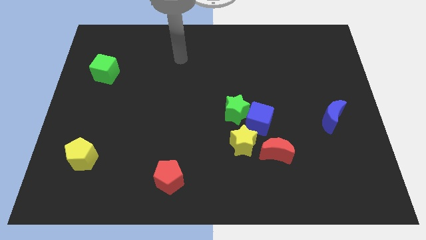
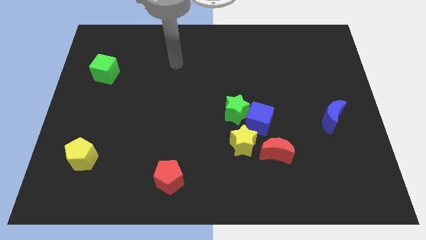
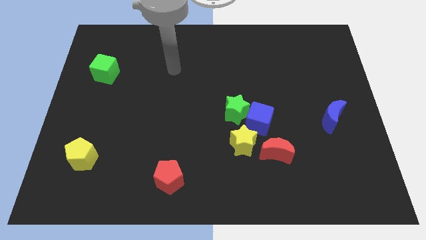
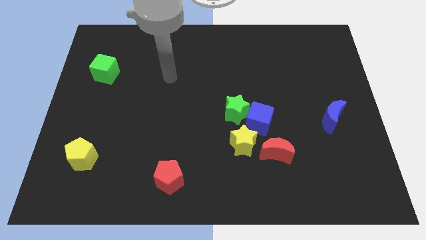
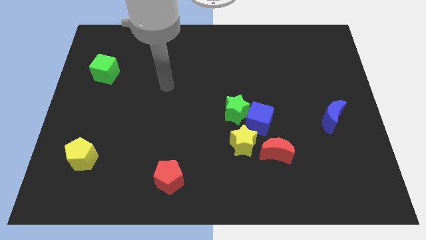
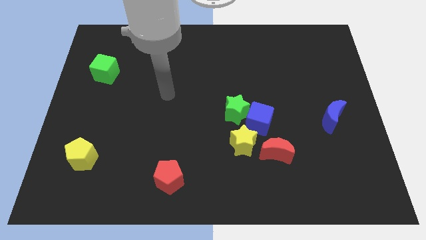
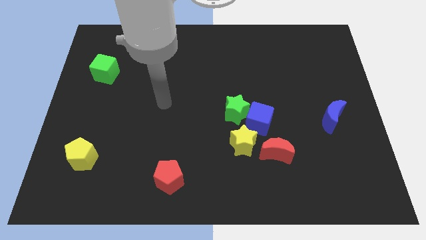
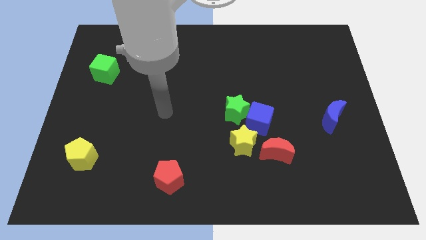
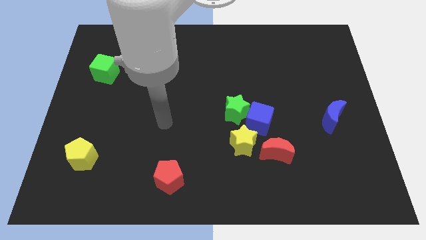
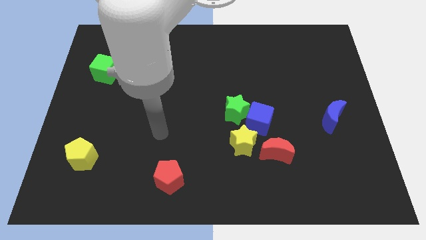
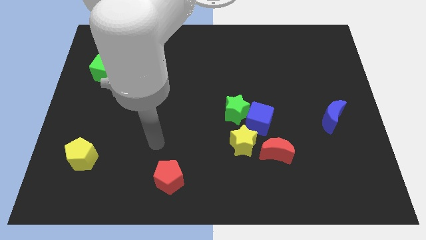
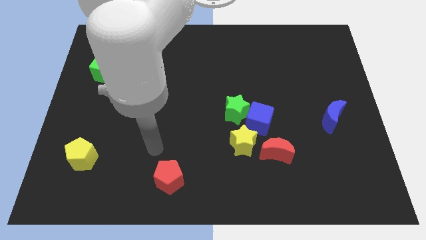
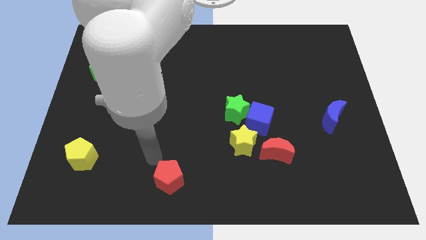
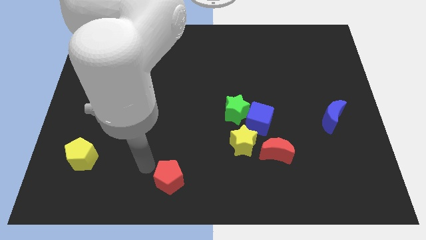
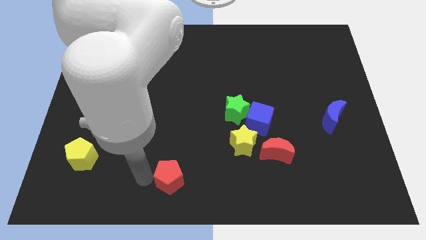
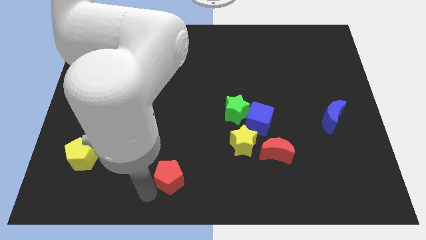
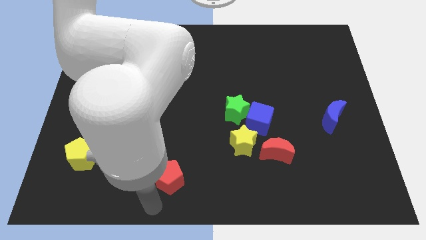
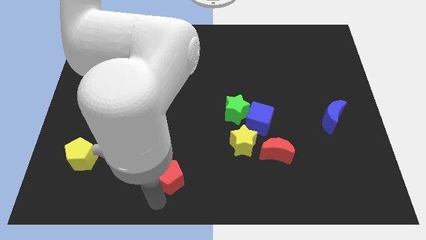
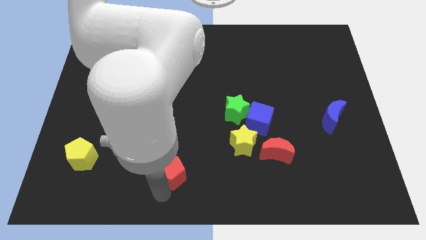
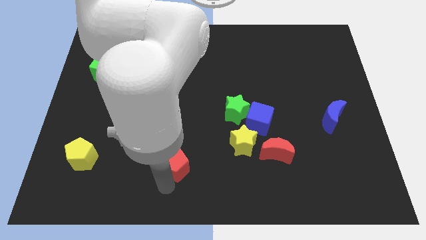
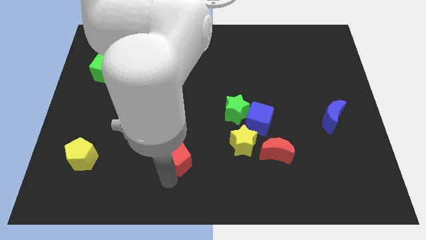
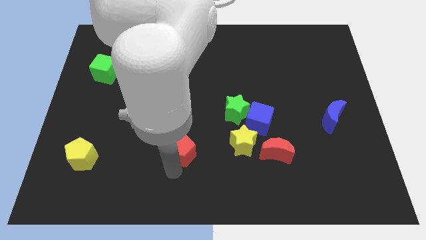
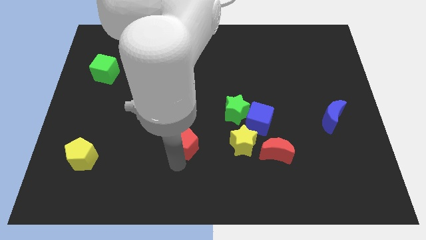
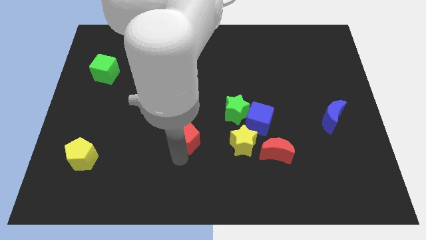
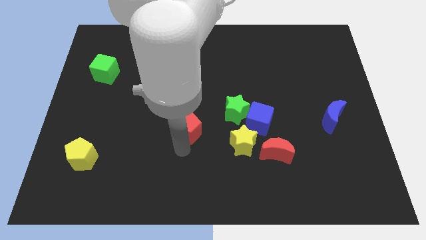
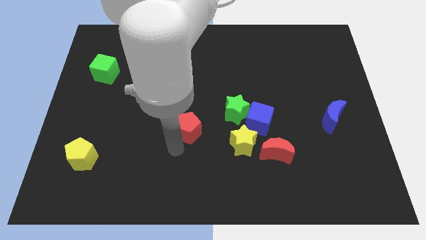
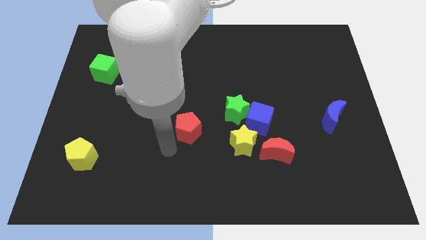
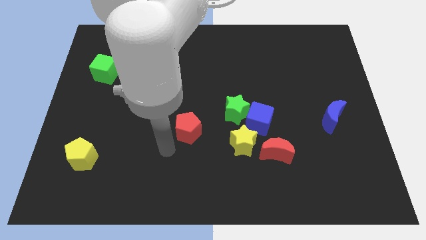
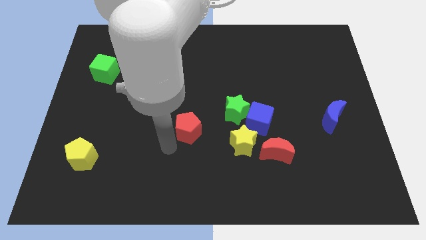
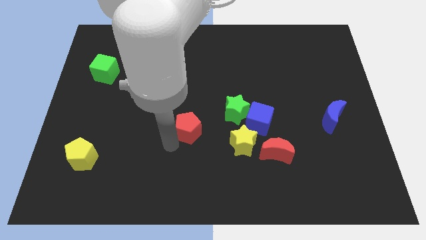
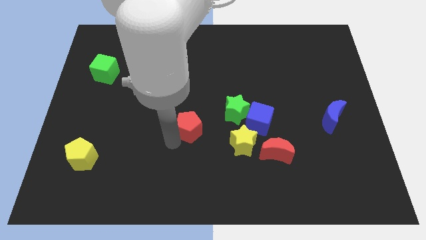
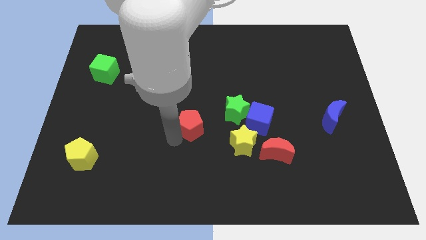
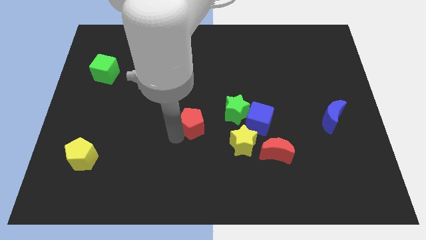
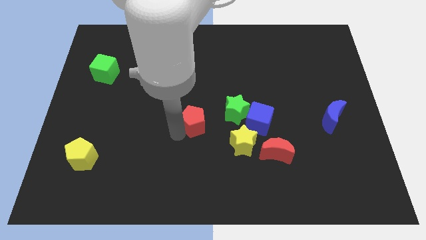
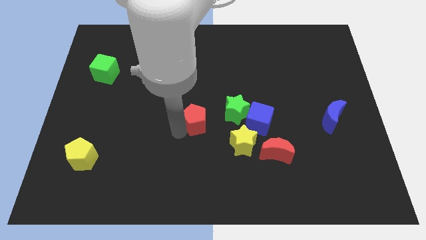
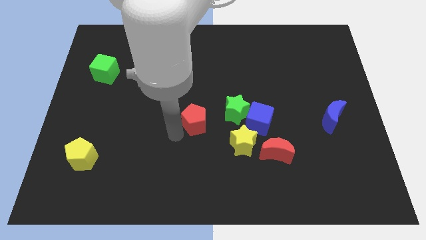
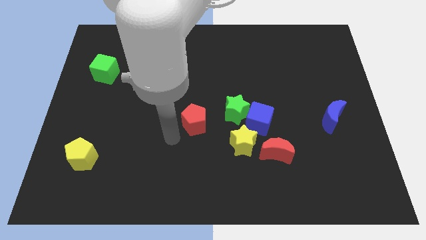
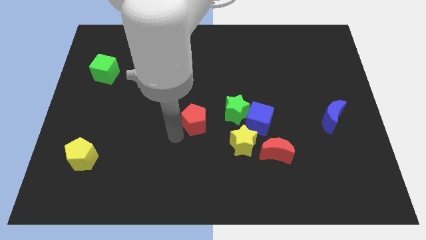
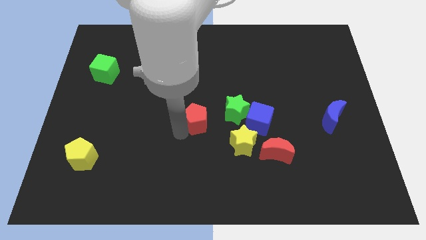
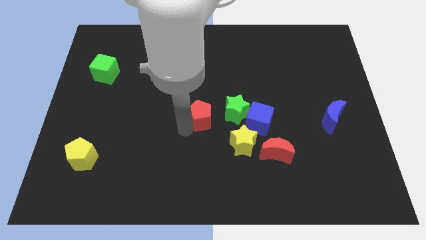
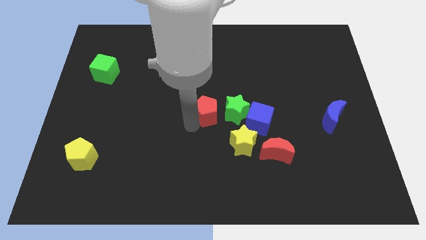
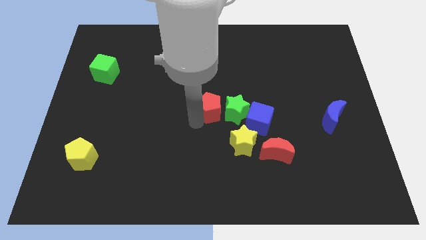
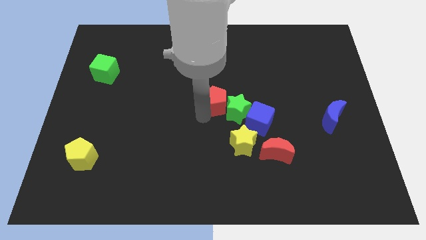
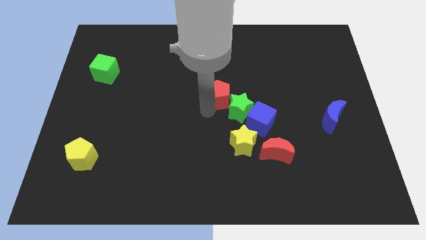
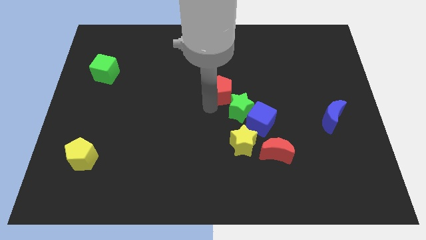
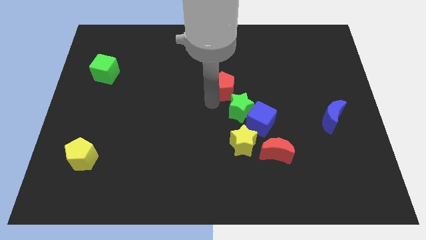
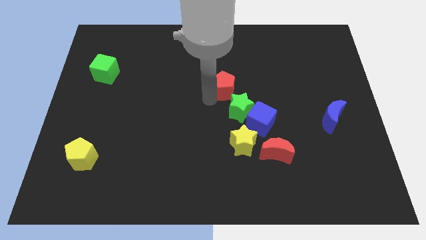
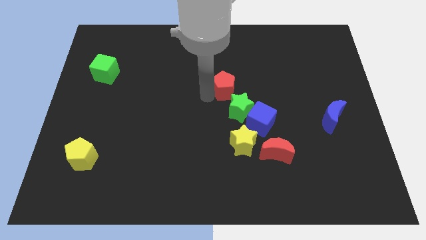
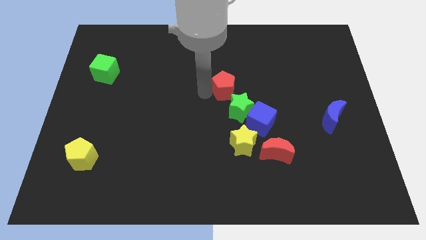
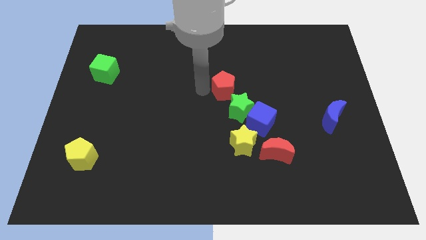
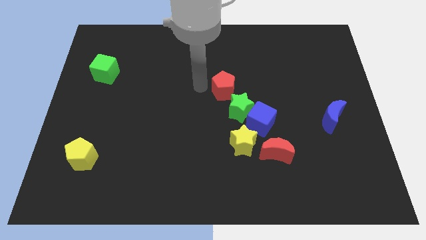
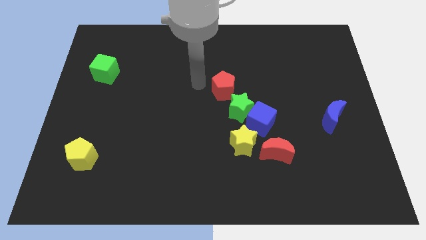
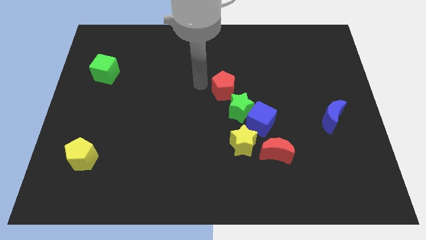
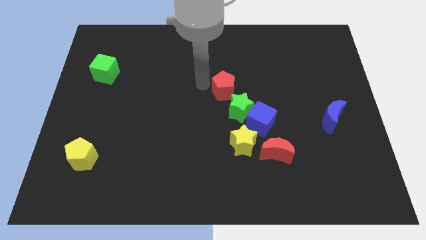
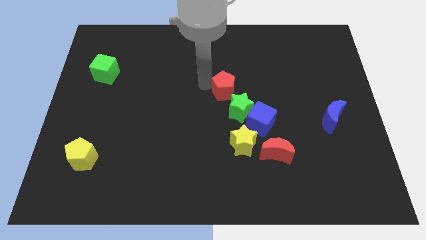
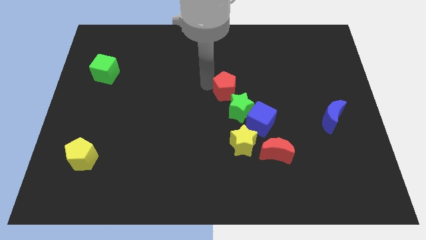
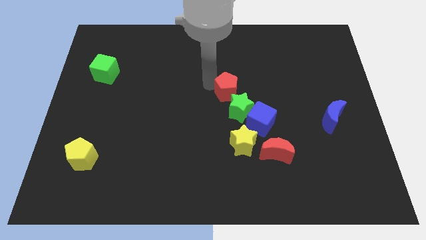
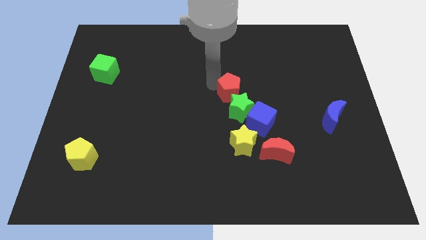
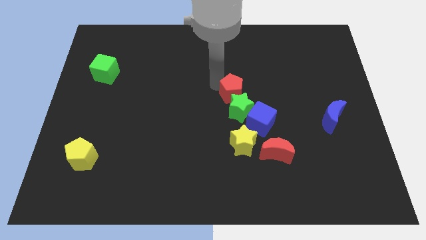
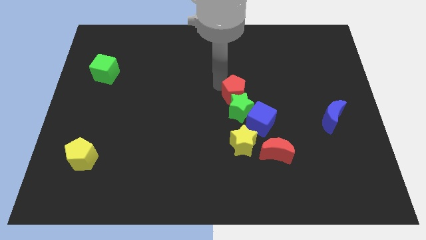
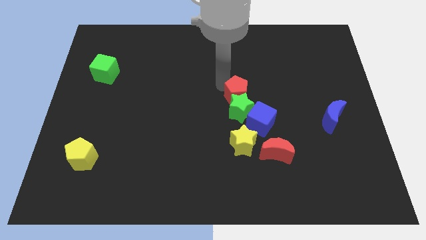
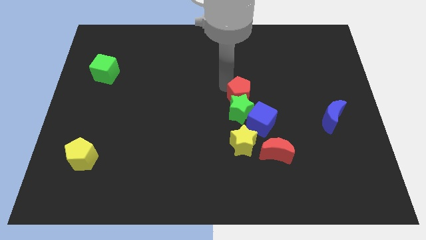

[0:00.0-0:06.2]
slide the red pentagon to the top of the blue cube

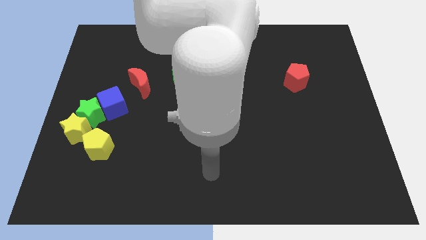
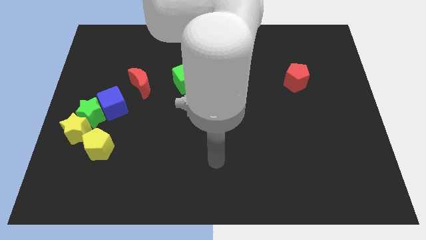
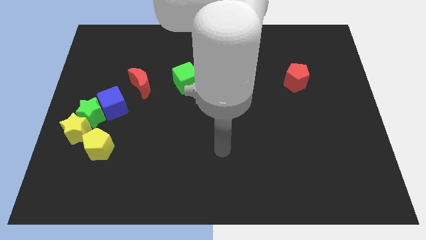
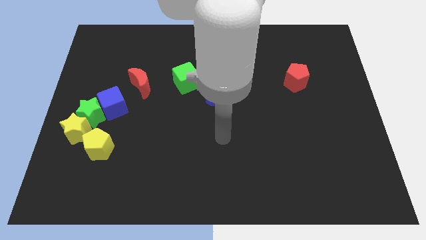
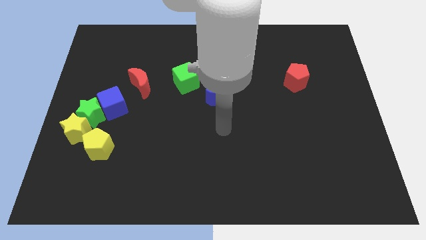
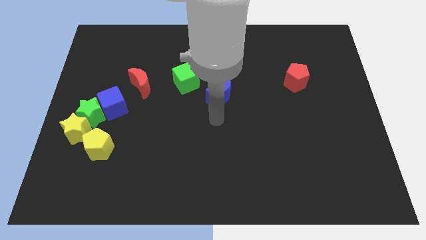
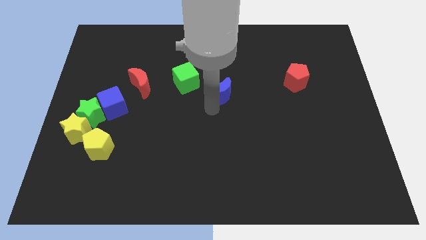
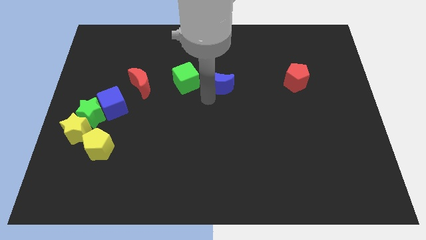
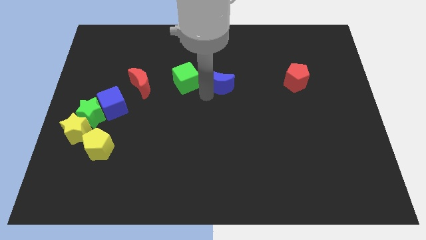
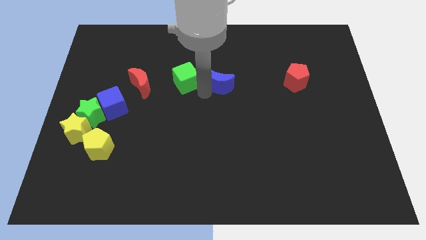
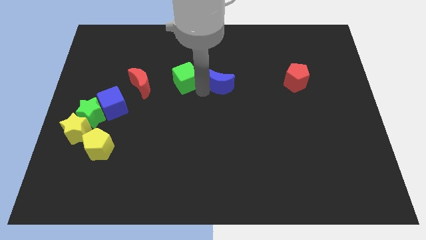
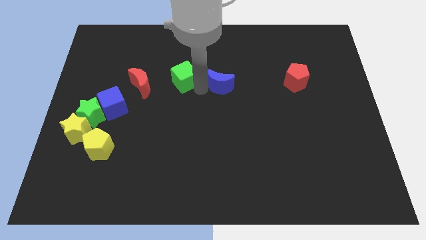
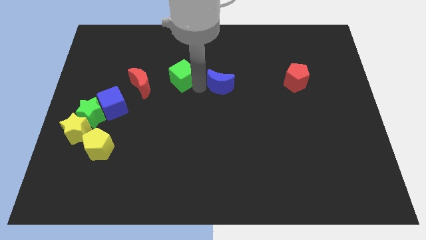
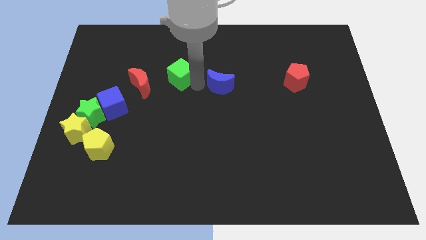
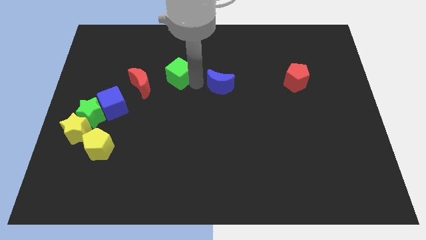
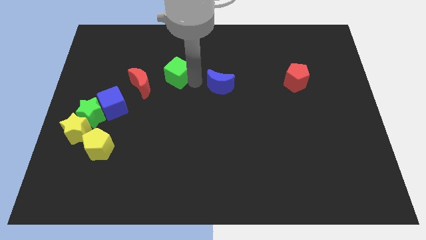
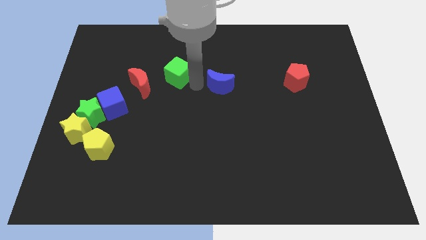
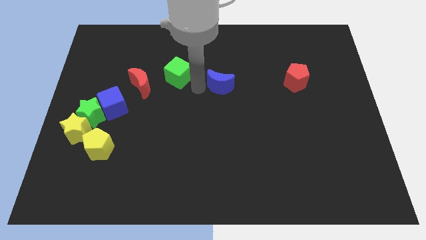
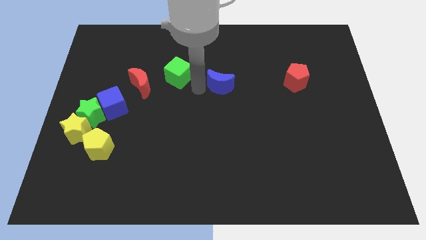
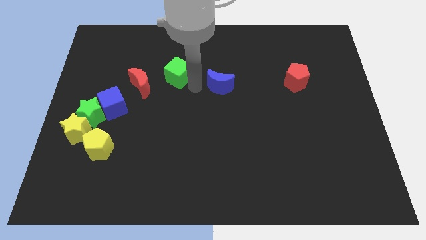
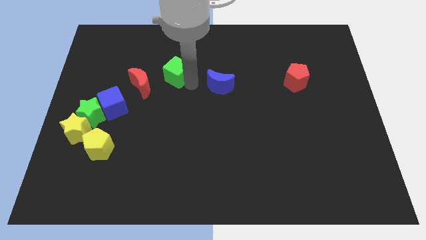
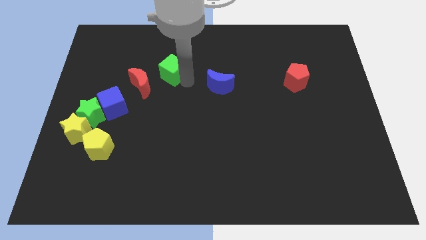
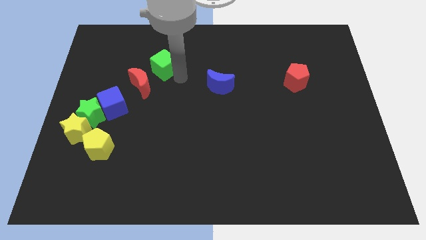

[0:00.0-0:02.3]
slide the green cube above the red moon
